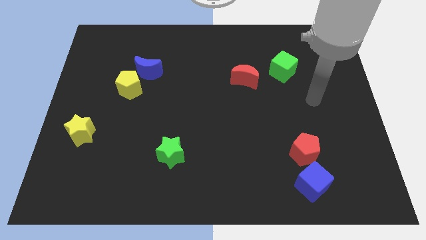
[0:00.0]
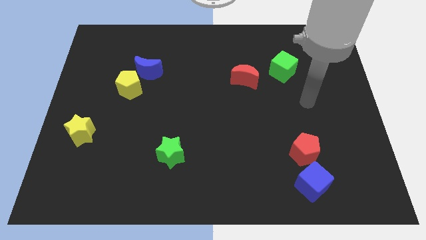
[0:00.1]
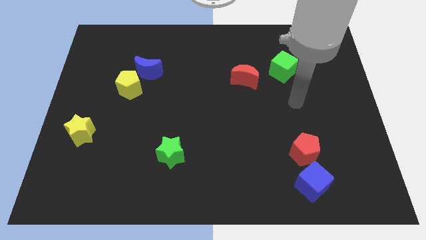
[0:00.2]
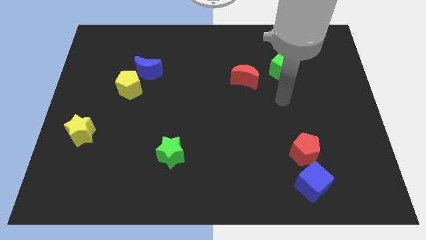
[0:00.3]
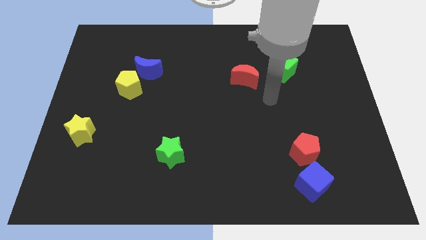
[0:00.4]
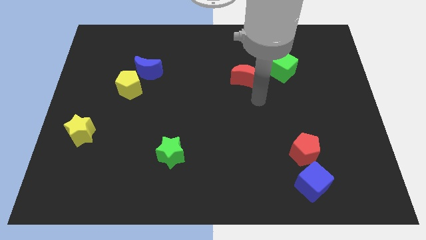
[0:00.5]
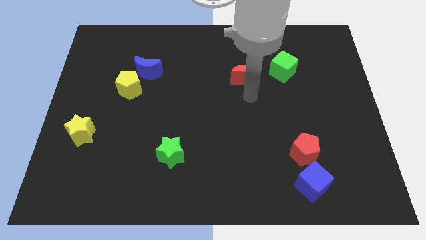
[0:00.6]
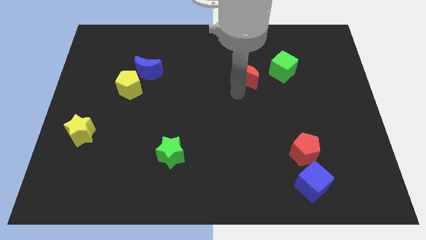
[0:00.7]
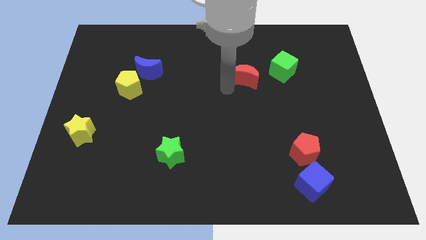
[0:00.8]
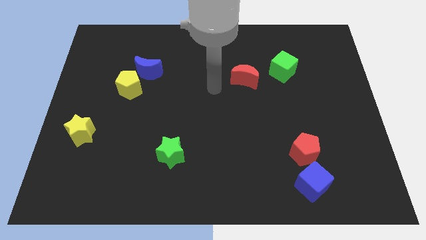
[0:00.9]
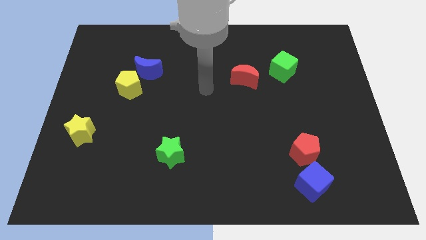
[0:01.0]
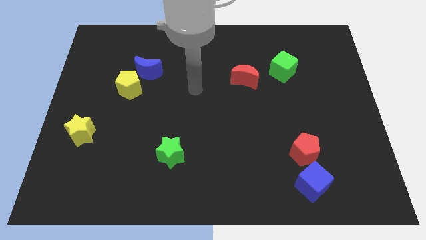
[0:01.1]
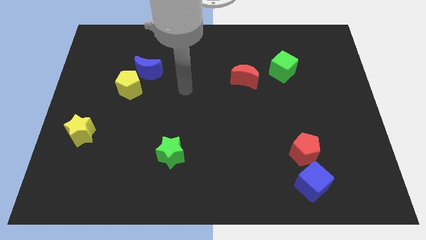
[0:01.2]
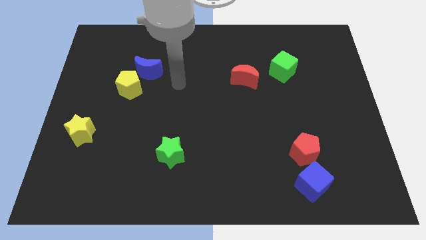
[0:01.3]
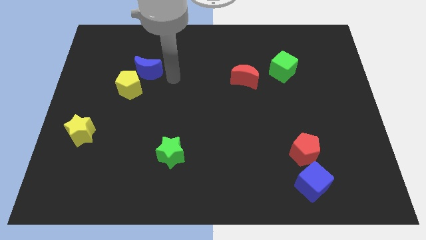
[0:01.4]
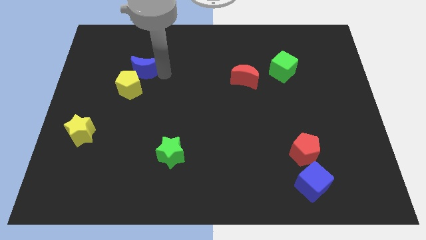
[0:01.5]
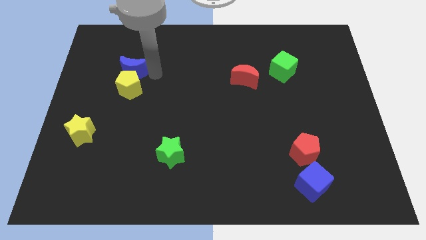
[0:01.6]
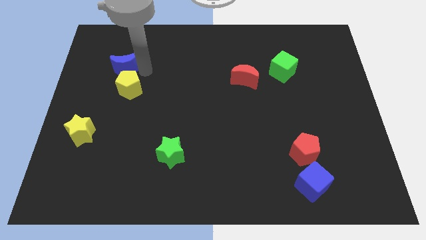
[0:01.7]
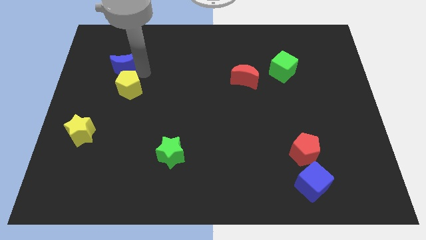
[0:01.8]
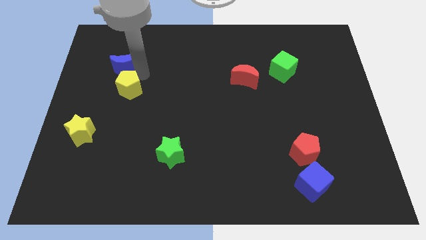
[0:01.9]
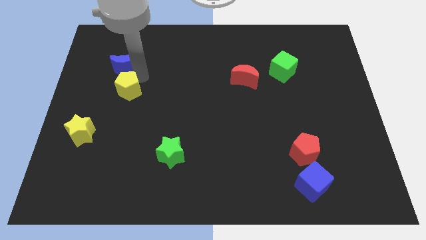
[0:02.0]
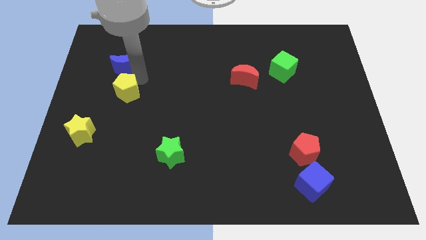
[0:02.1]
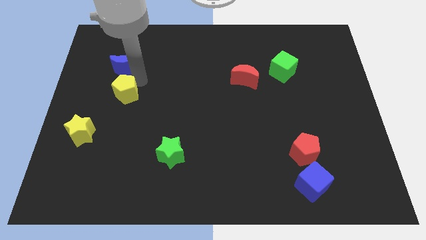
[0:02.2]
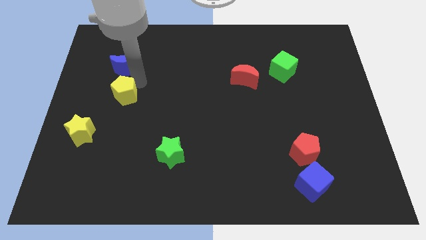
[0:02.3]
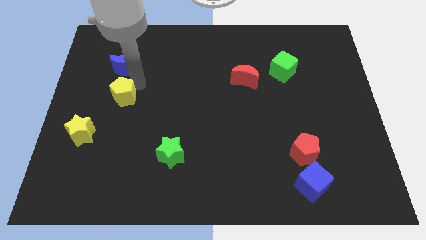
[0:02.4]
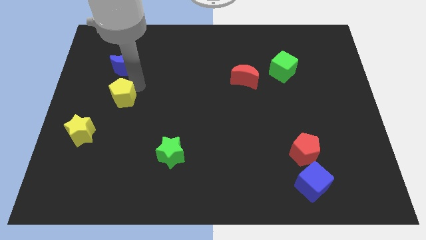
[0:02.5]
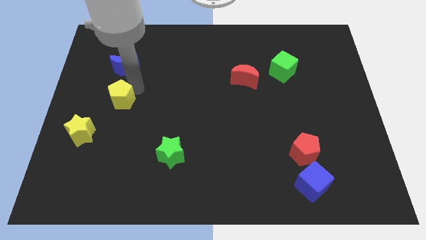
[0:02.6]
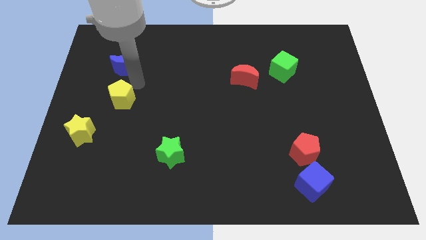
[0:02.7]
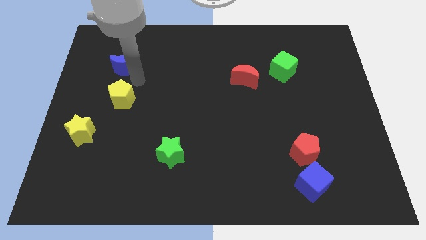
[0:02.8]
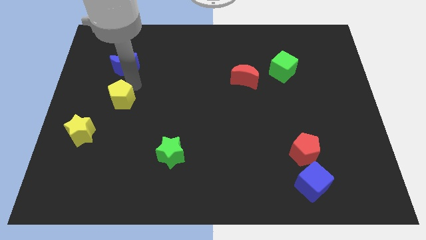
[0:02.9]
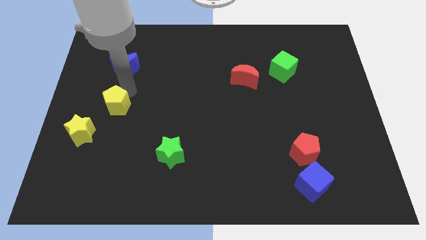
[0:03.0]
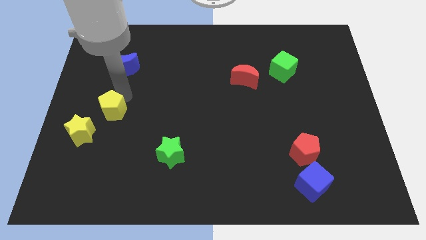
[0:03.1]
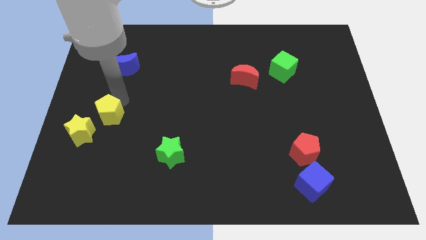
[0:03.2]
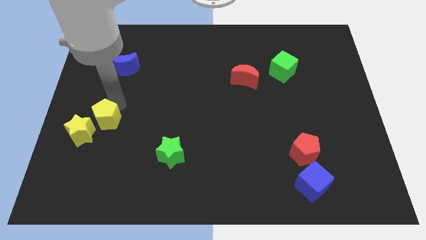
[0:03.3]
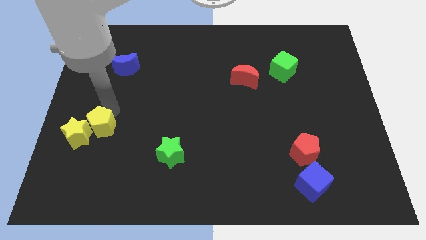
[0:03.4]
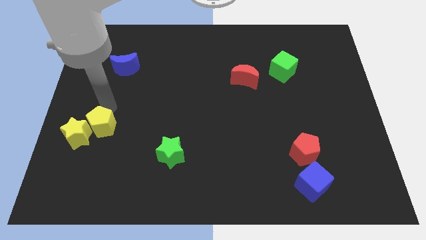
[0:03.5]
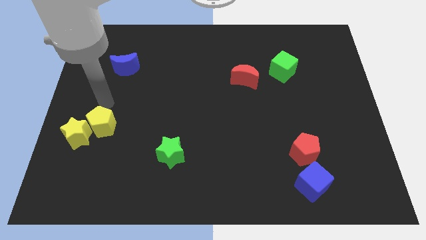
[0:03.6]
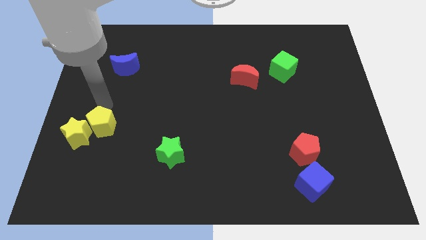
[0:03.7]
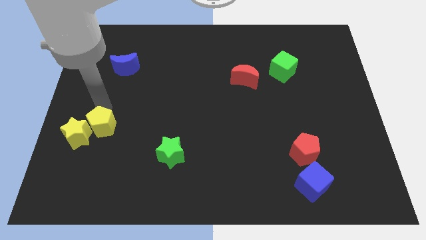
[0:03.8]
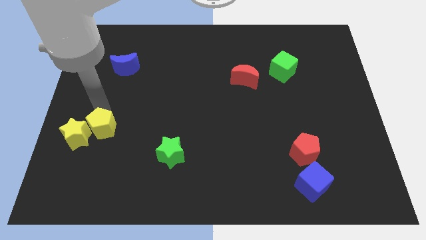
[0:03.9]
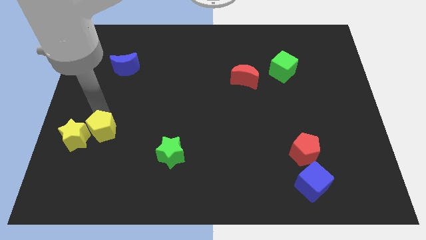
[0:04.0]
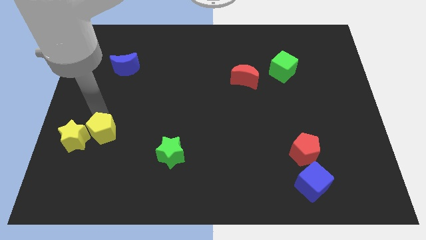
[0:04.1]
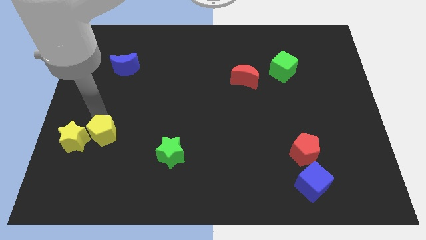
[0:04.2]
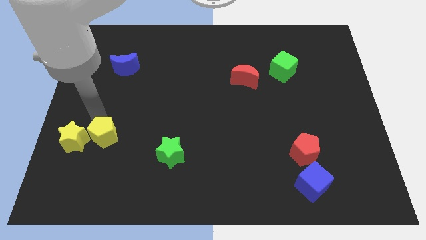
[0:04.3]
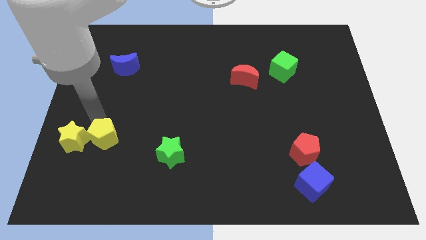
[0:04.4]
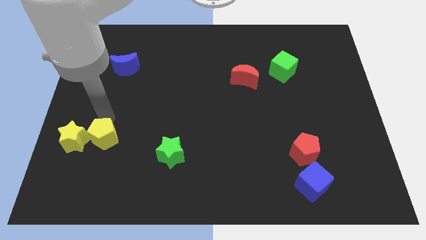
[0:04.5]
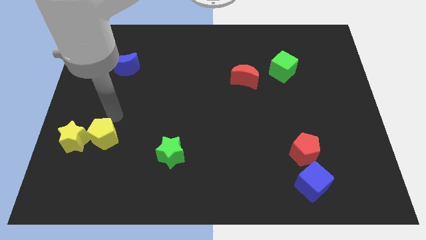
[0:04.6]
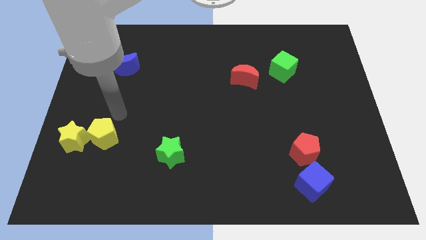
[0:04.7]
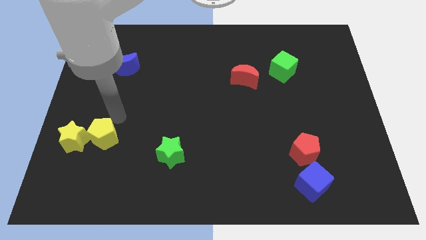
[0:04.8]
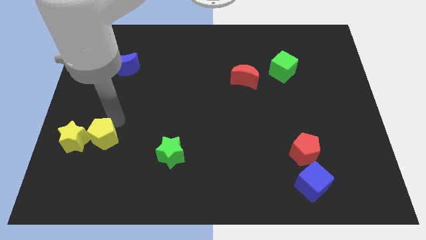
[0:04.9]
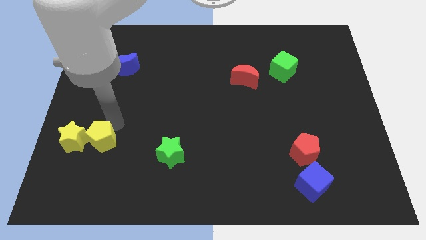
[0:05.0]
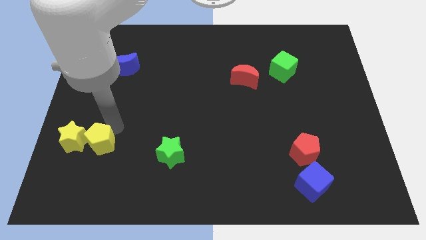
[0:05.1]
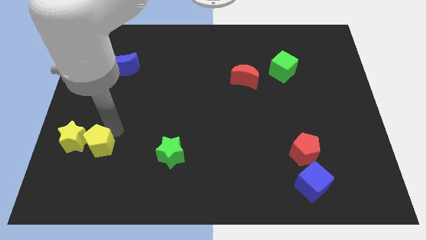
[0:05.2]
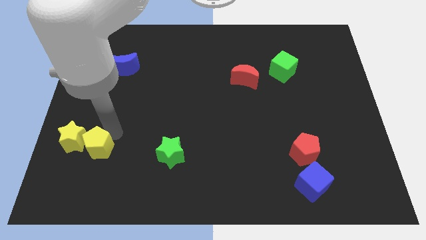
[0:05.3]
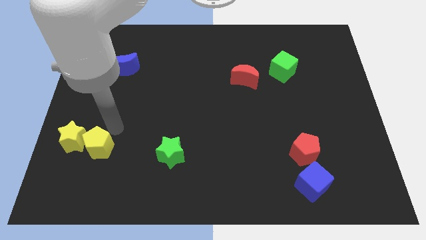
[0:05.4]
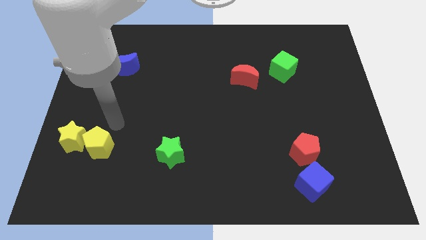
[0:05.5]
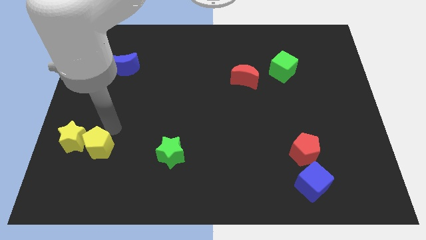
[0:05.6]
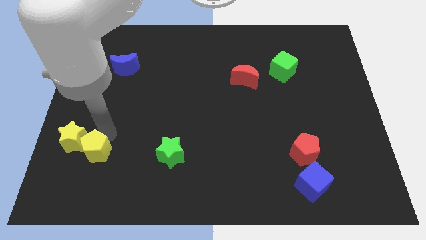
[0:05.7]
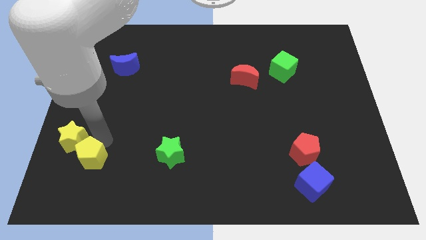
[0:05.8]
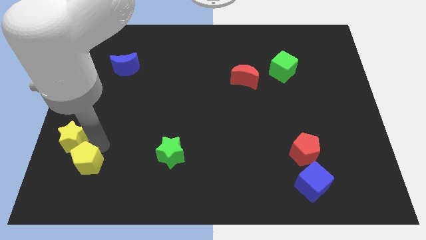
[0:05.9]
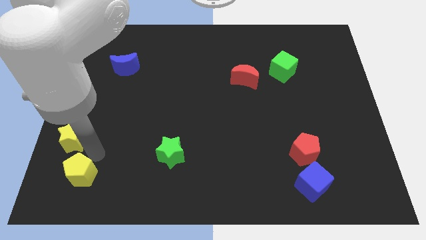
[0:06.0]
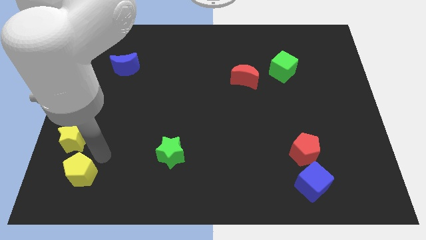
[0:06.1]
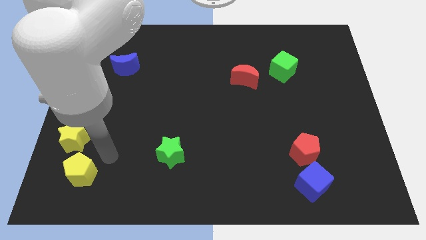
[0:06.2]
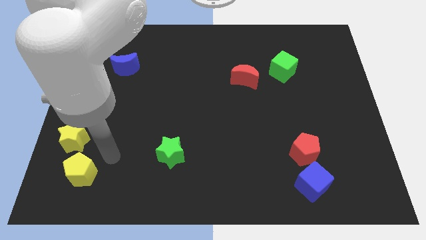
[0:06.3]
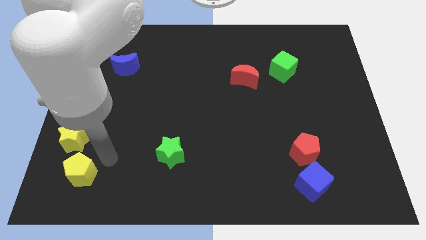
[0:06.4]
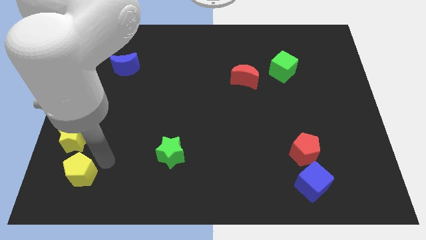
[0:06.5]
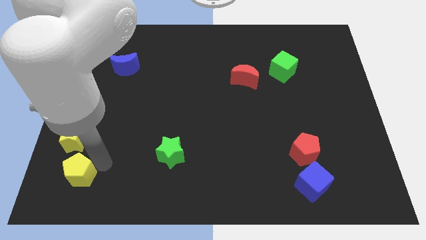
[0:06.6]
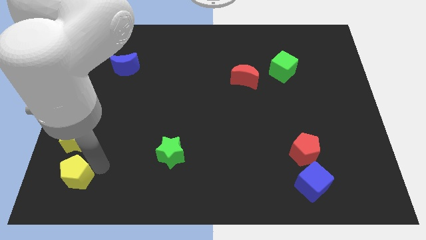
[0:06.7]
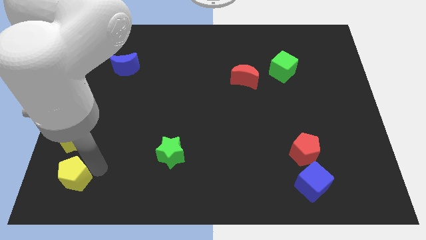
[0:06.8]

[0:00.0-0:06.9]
push the yellow pentagon to the bottom left corner
